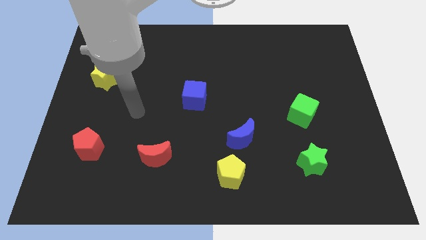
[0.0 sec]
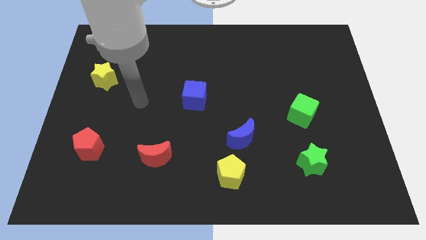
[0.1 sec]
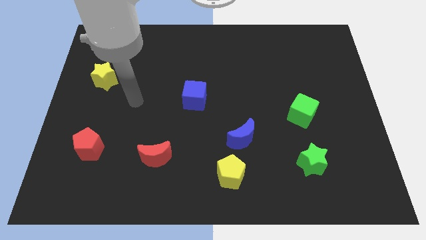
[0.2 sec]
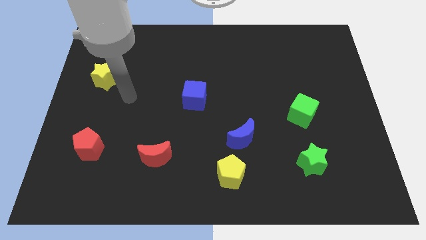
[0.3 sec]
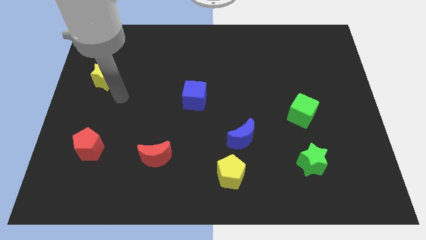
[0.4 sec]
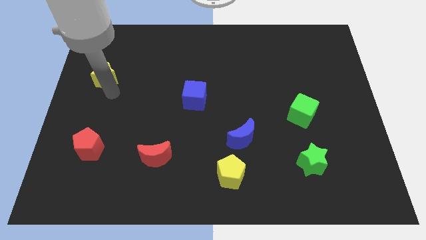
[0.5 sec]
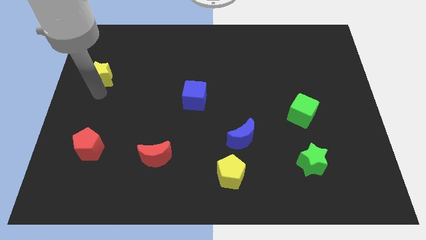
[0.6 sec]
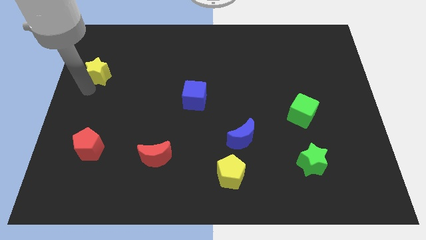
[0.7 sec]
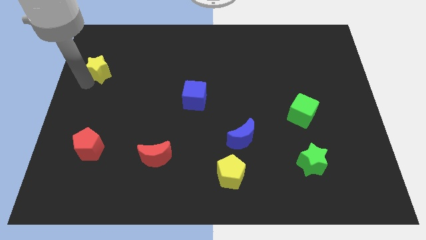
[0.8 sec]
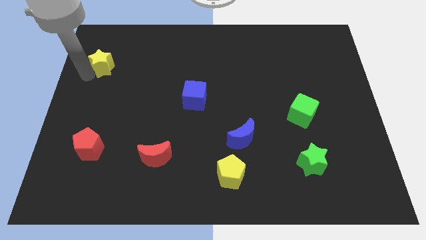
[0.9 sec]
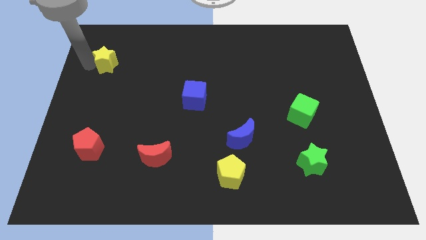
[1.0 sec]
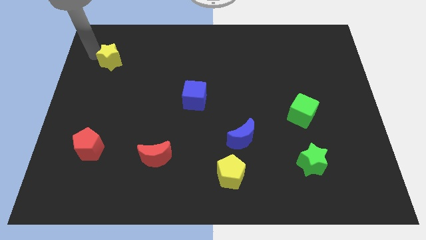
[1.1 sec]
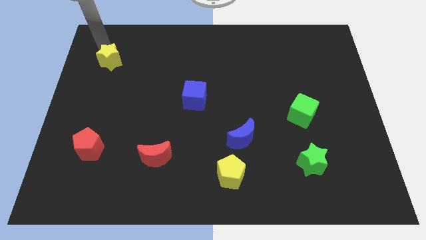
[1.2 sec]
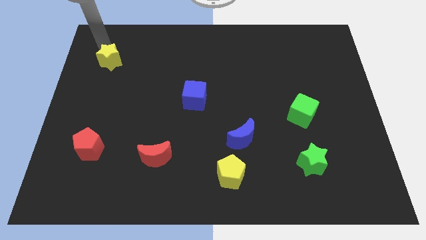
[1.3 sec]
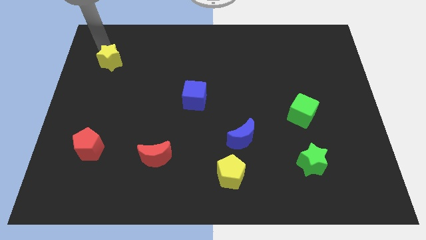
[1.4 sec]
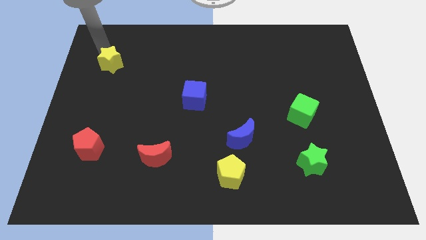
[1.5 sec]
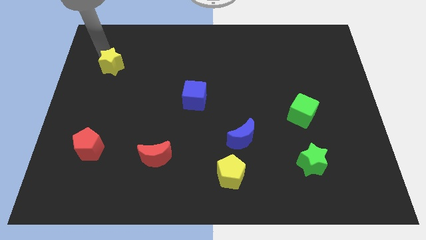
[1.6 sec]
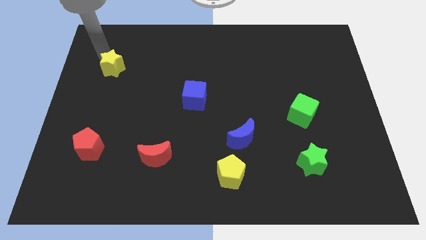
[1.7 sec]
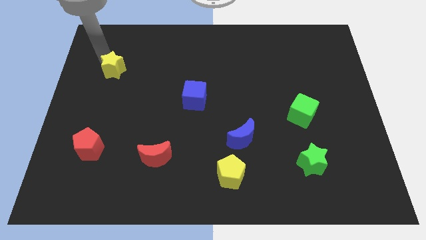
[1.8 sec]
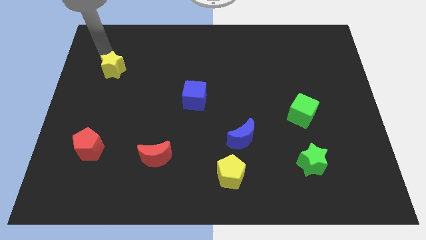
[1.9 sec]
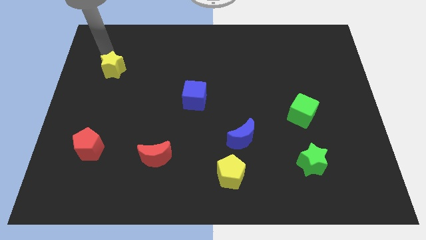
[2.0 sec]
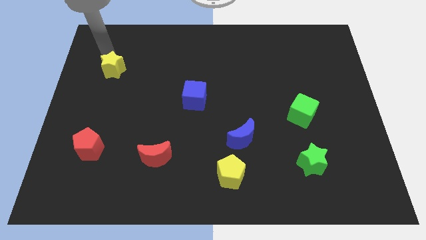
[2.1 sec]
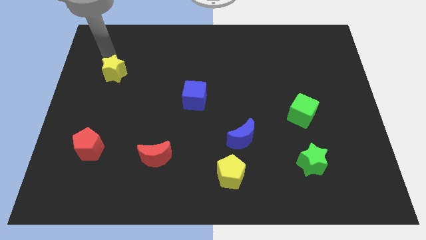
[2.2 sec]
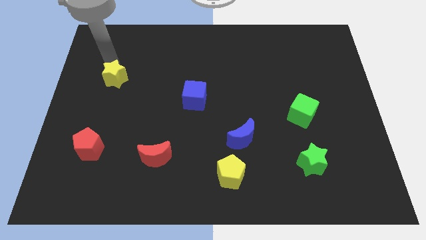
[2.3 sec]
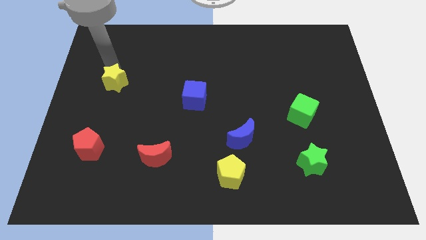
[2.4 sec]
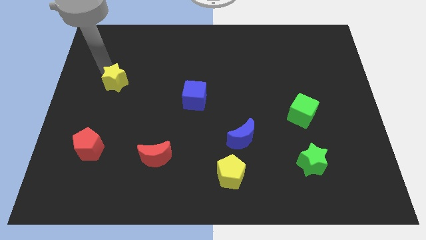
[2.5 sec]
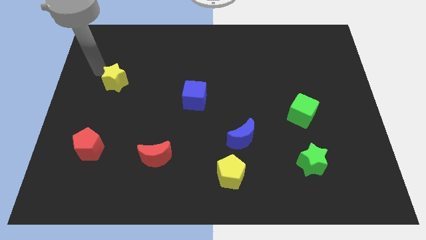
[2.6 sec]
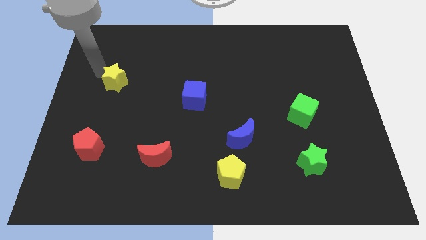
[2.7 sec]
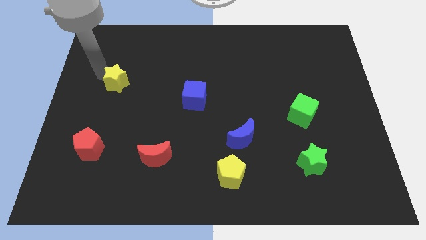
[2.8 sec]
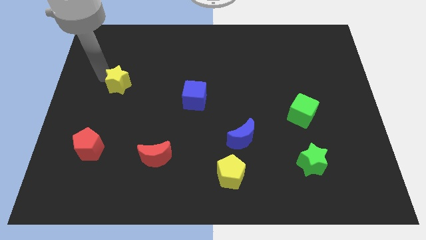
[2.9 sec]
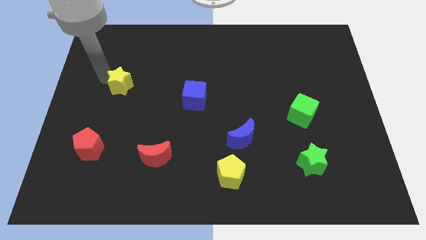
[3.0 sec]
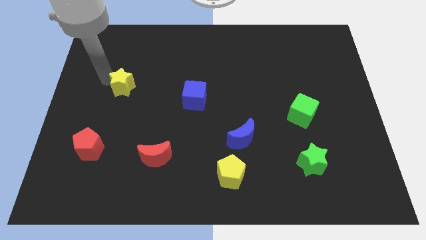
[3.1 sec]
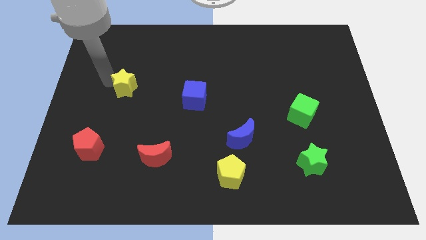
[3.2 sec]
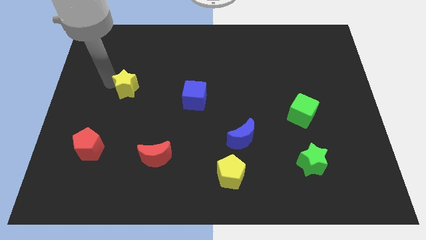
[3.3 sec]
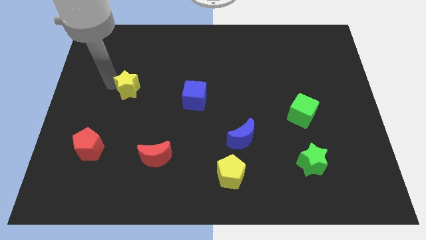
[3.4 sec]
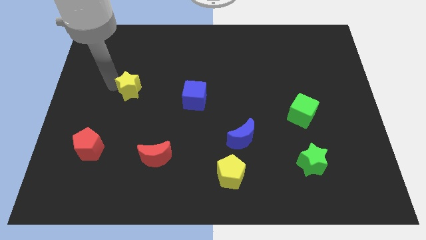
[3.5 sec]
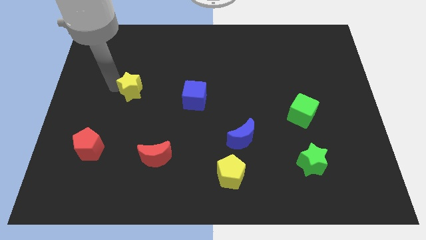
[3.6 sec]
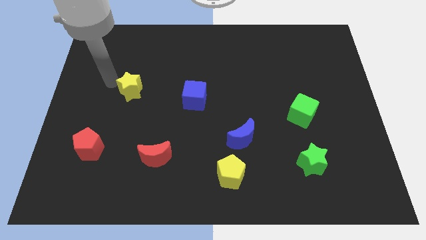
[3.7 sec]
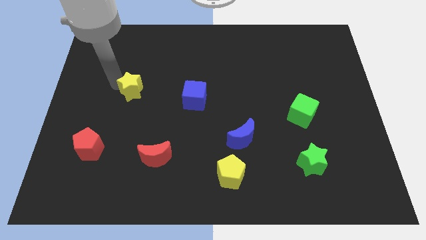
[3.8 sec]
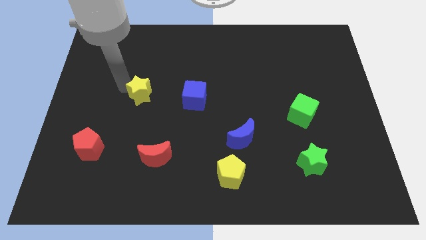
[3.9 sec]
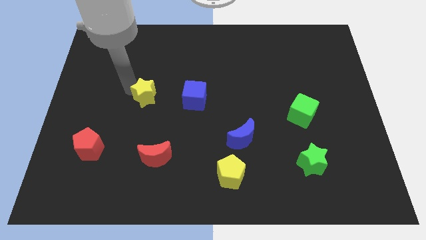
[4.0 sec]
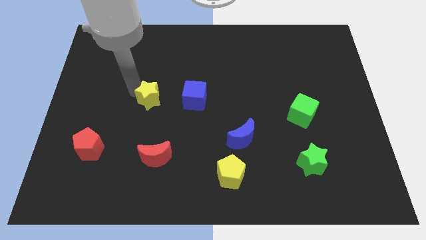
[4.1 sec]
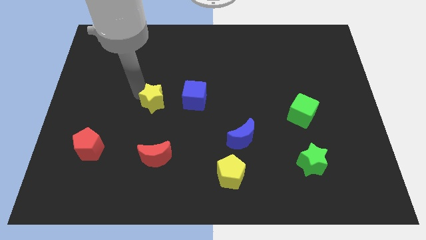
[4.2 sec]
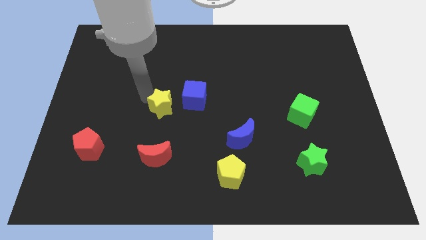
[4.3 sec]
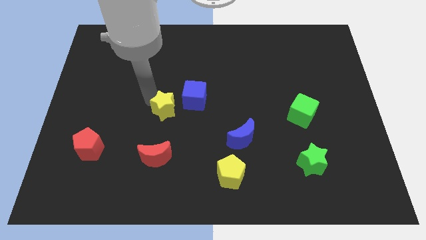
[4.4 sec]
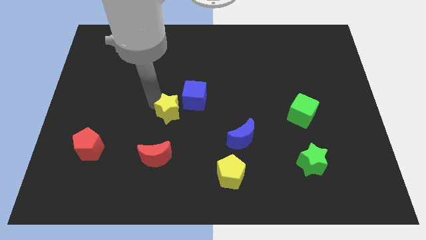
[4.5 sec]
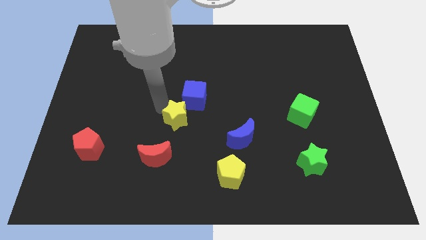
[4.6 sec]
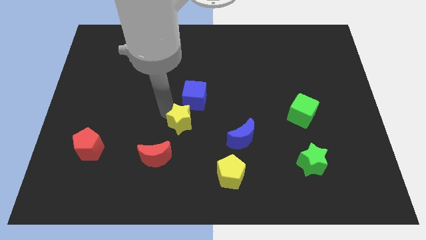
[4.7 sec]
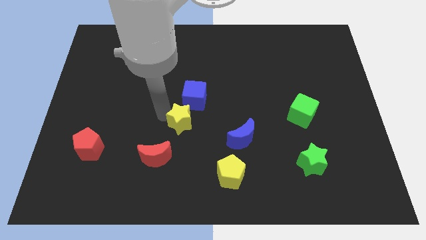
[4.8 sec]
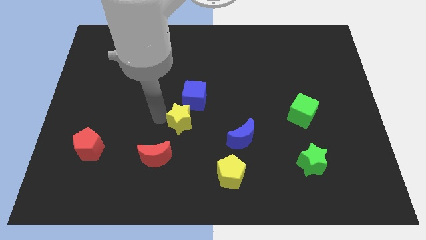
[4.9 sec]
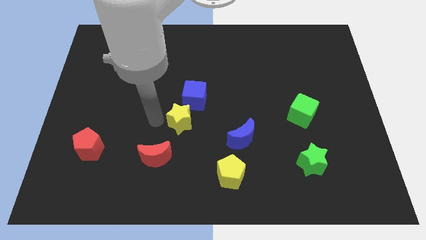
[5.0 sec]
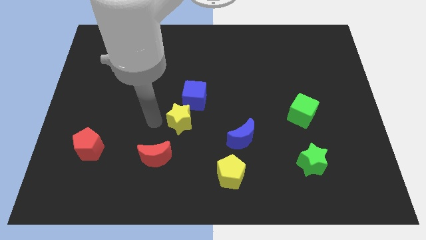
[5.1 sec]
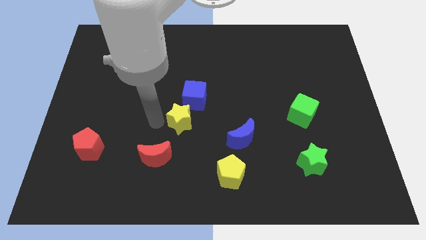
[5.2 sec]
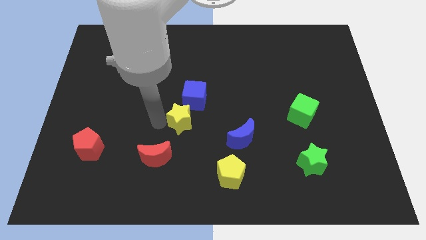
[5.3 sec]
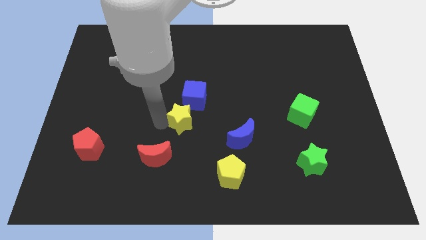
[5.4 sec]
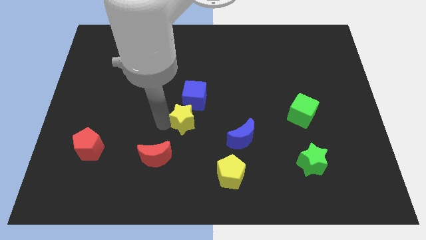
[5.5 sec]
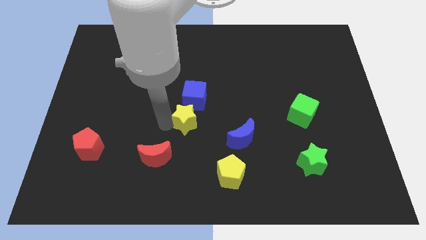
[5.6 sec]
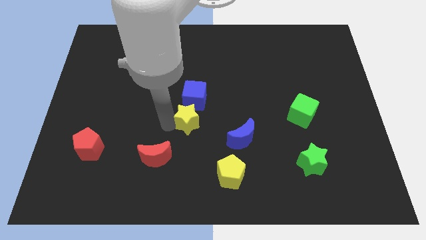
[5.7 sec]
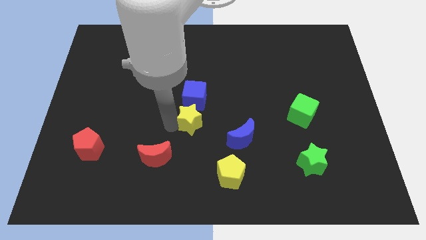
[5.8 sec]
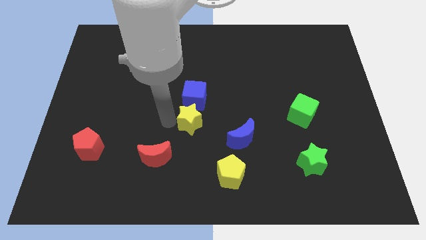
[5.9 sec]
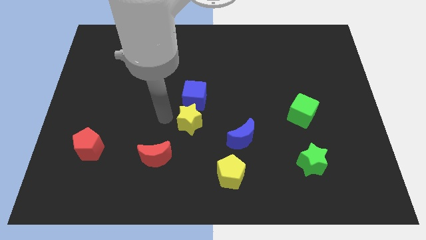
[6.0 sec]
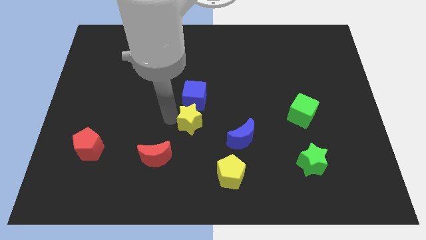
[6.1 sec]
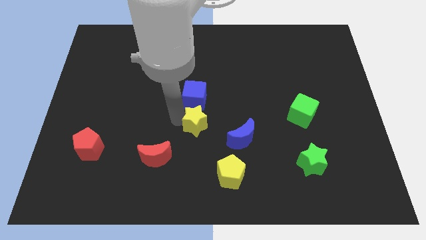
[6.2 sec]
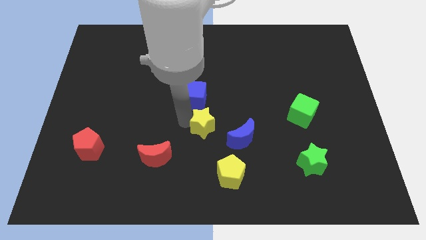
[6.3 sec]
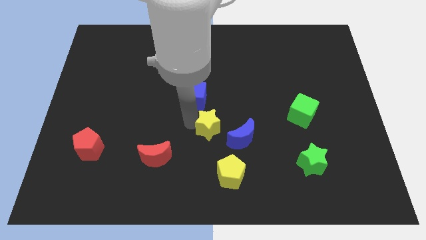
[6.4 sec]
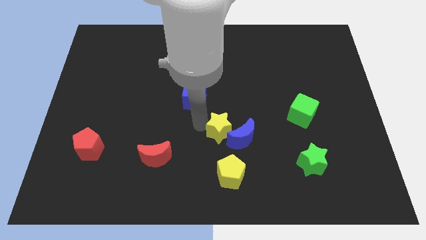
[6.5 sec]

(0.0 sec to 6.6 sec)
slide the yellow star close to the blue moon

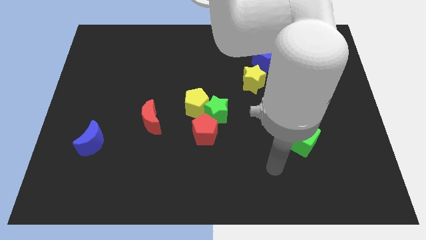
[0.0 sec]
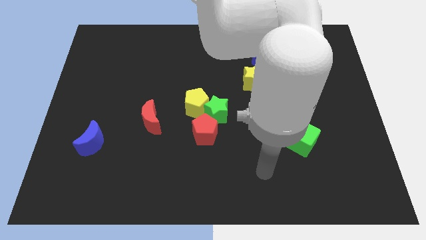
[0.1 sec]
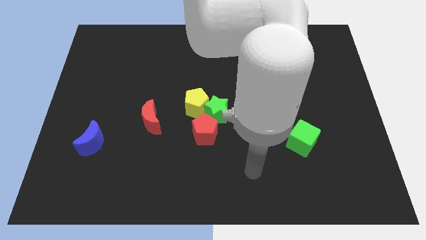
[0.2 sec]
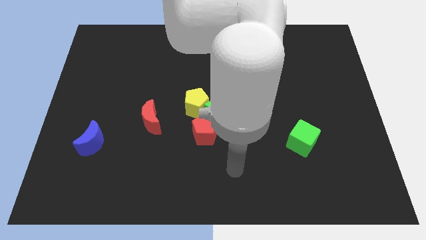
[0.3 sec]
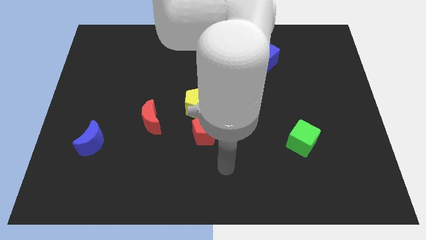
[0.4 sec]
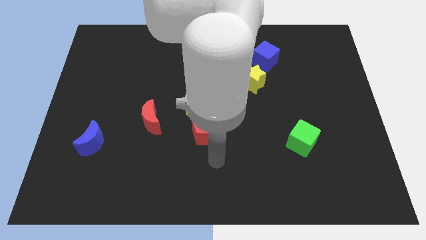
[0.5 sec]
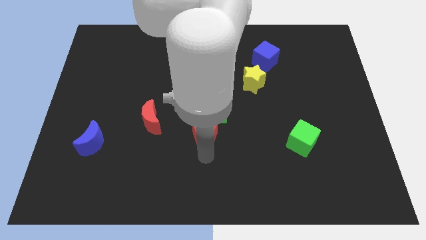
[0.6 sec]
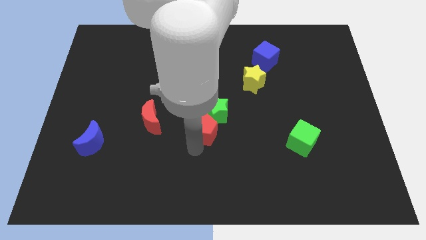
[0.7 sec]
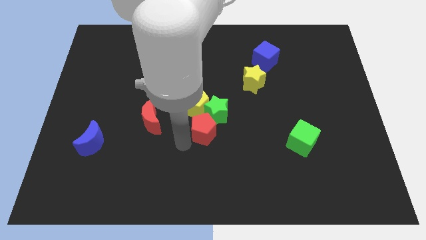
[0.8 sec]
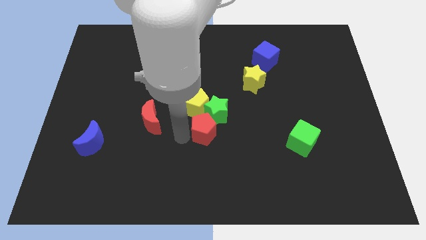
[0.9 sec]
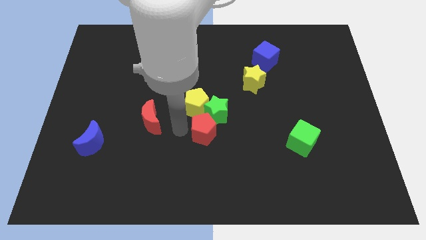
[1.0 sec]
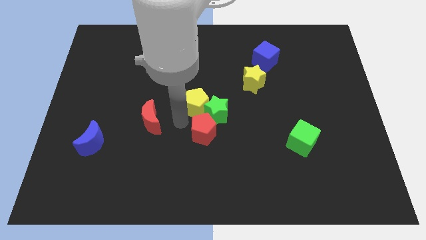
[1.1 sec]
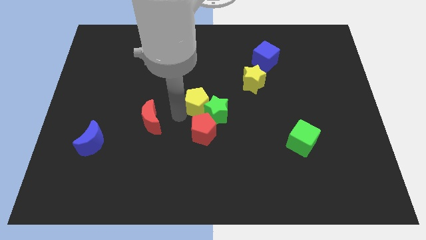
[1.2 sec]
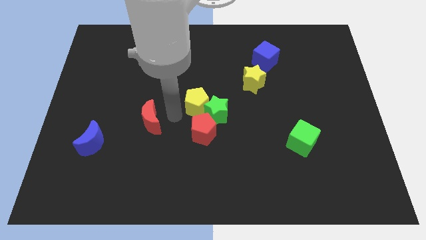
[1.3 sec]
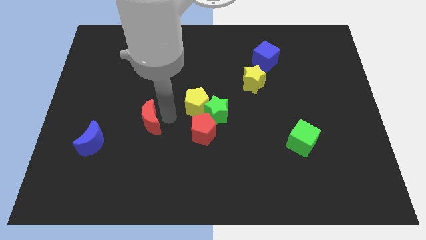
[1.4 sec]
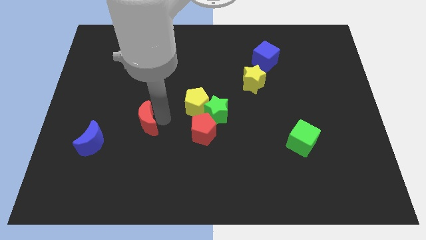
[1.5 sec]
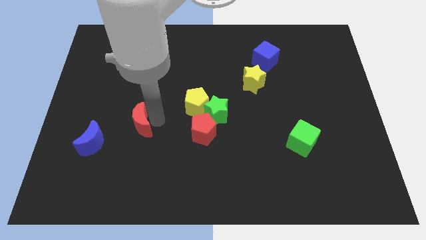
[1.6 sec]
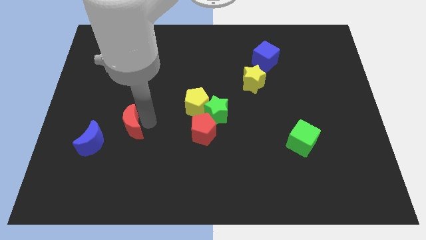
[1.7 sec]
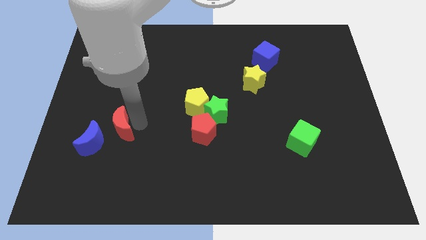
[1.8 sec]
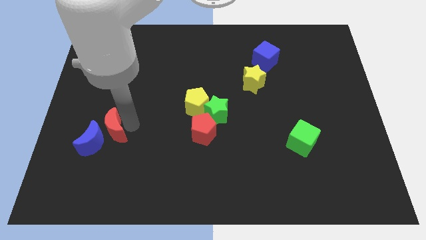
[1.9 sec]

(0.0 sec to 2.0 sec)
put the red moon close to the blue moon
